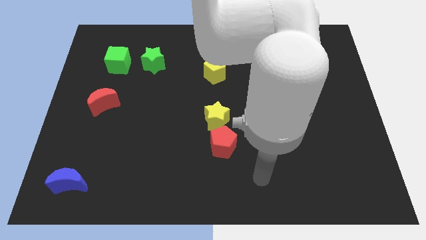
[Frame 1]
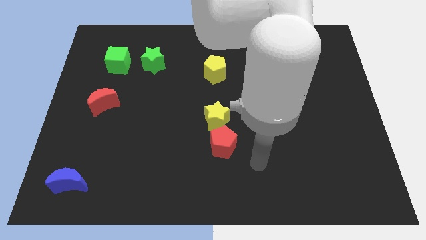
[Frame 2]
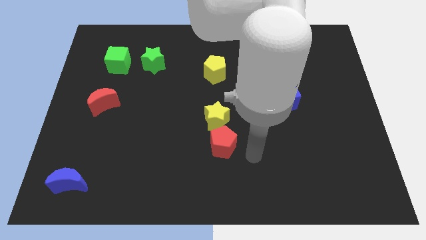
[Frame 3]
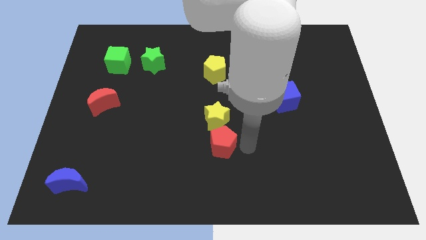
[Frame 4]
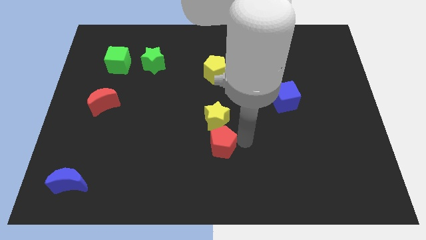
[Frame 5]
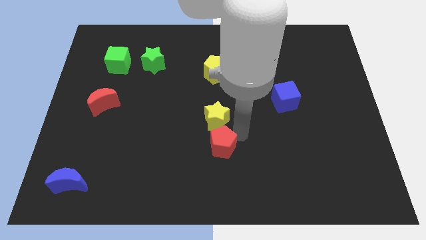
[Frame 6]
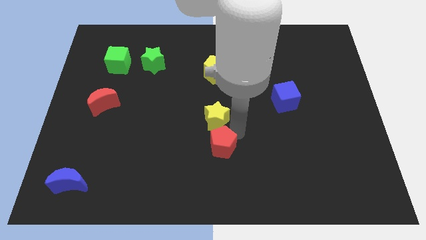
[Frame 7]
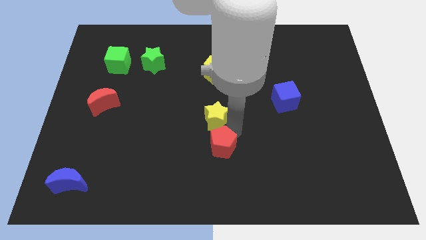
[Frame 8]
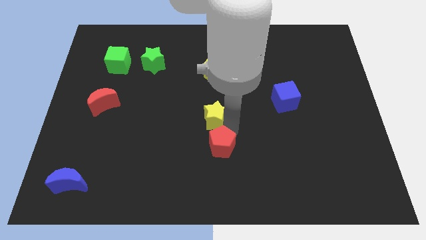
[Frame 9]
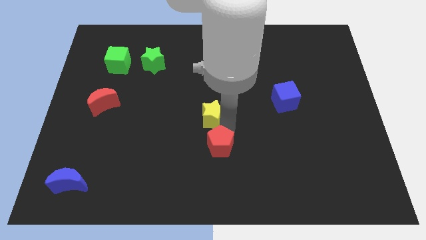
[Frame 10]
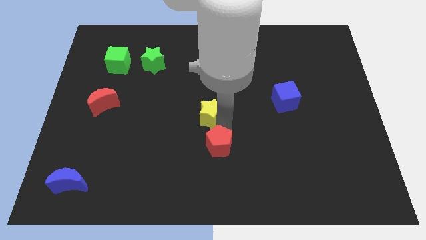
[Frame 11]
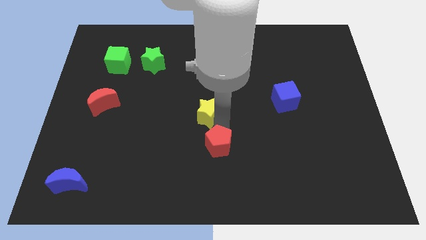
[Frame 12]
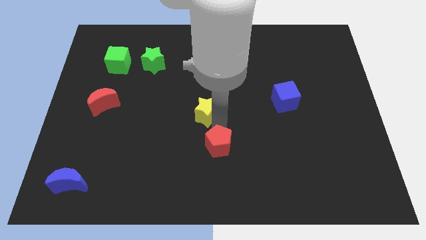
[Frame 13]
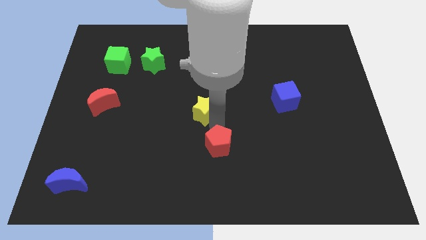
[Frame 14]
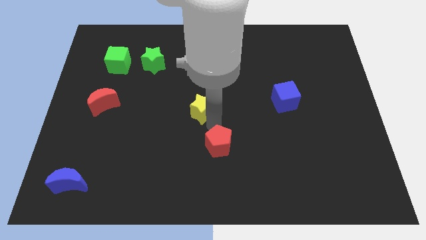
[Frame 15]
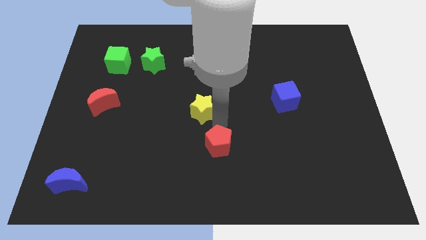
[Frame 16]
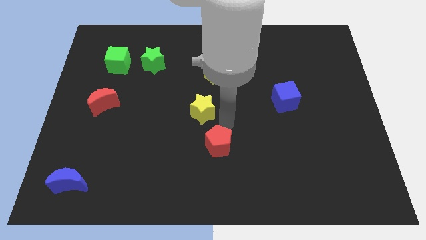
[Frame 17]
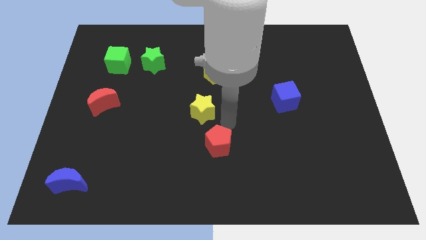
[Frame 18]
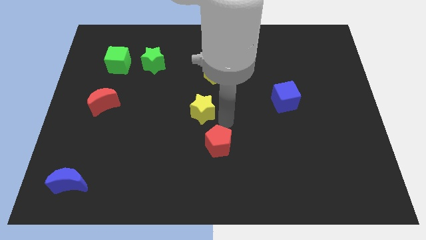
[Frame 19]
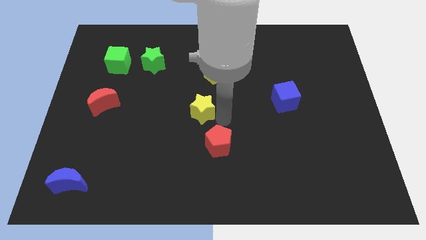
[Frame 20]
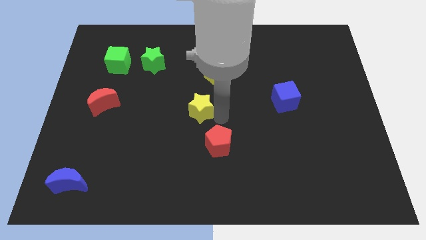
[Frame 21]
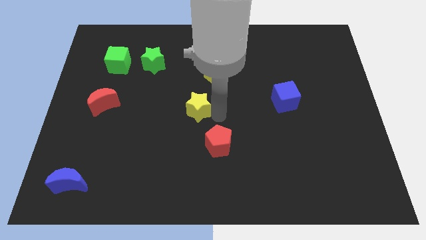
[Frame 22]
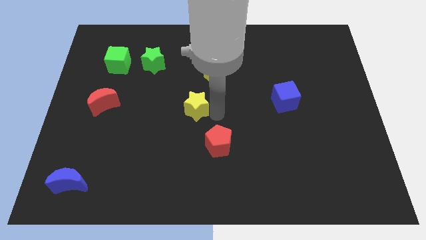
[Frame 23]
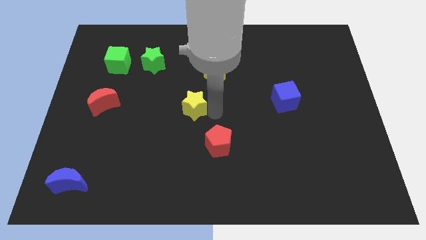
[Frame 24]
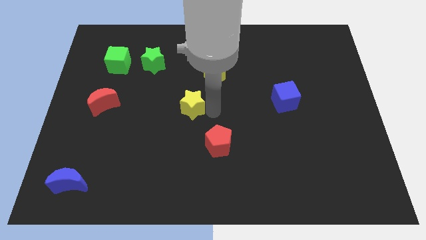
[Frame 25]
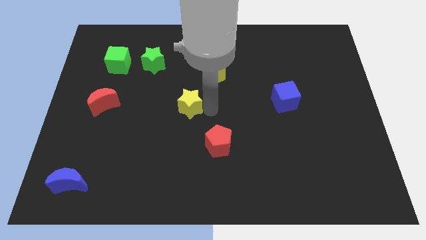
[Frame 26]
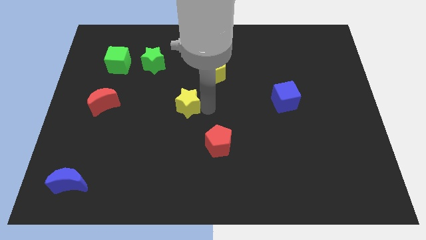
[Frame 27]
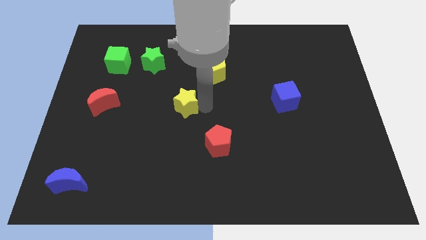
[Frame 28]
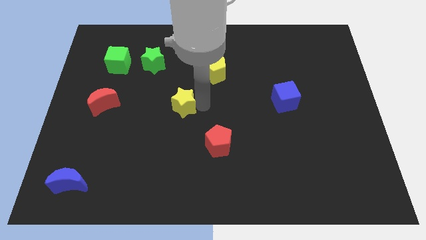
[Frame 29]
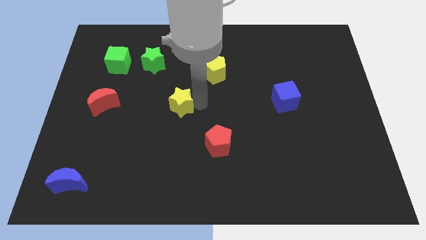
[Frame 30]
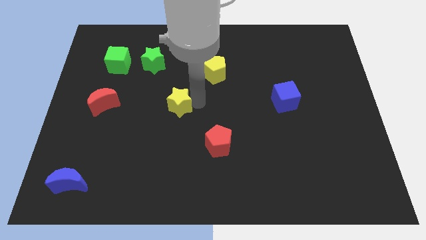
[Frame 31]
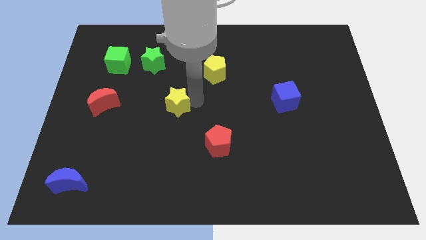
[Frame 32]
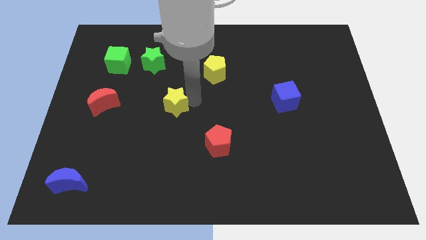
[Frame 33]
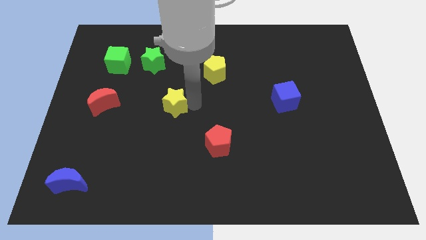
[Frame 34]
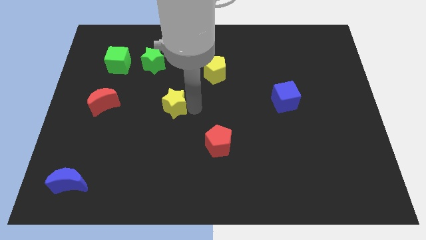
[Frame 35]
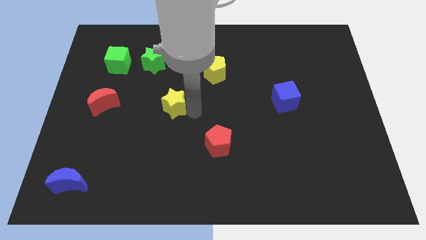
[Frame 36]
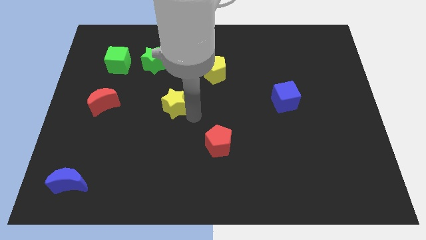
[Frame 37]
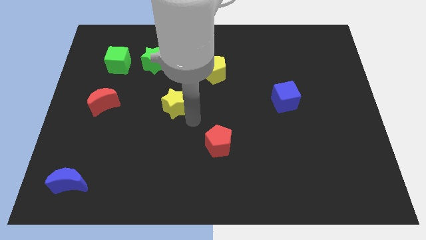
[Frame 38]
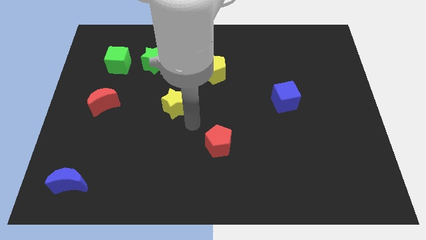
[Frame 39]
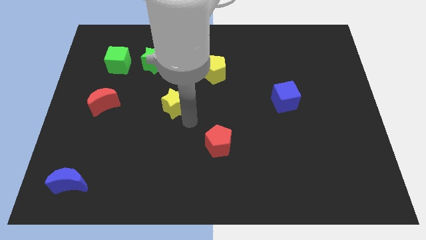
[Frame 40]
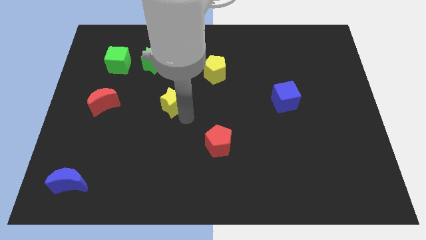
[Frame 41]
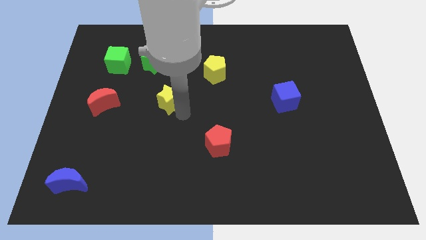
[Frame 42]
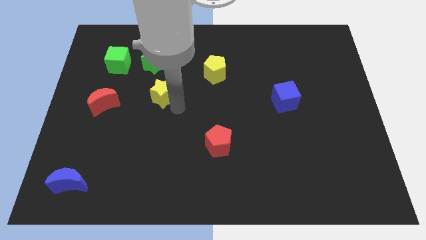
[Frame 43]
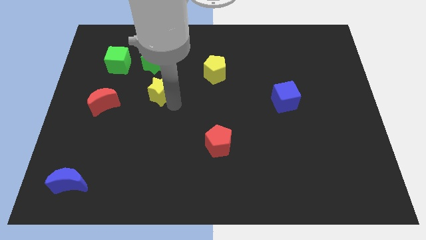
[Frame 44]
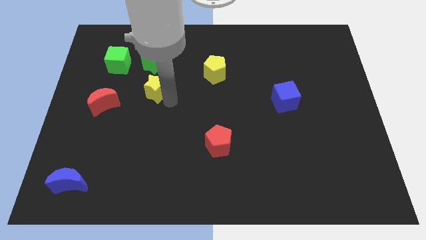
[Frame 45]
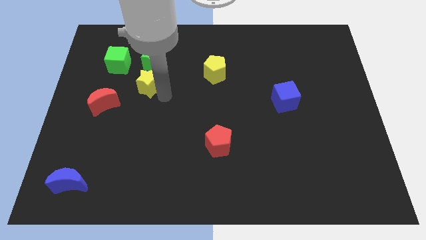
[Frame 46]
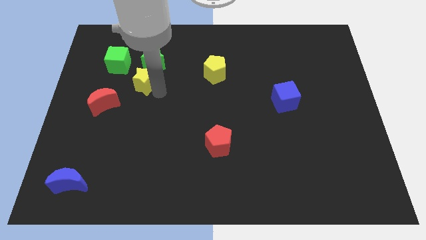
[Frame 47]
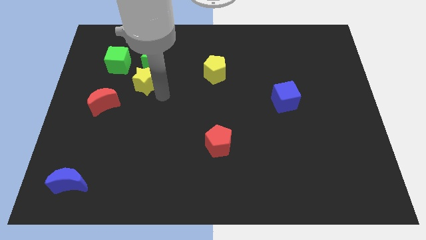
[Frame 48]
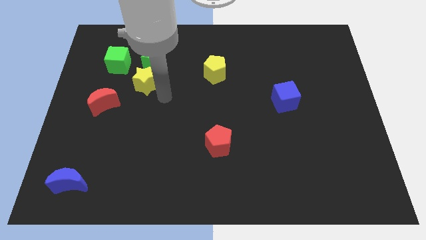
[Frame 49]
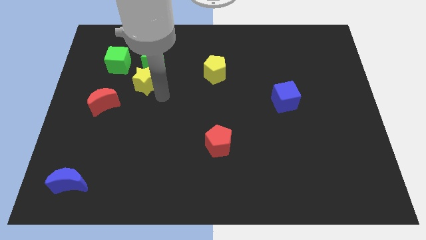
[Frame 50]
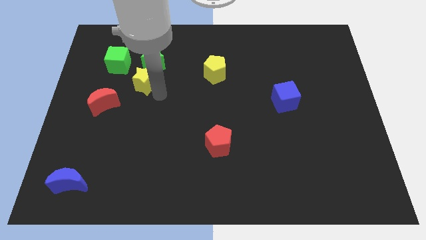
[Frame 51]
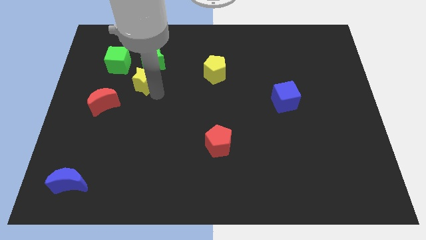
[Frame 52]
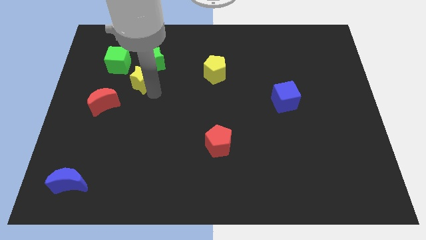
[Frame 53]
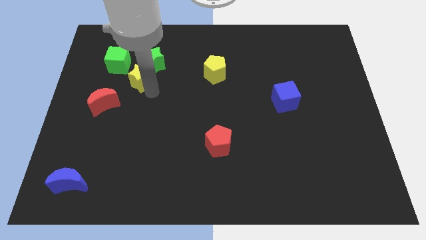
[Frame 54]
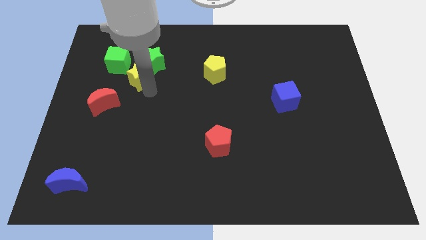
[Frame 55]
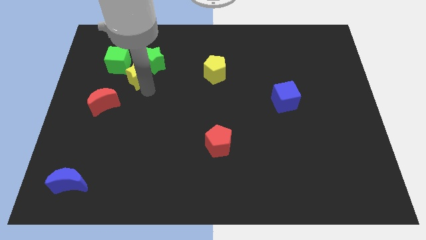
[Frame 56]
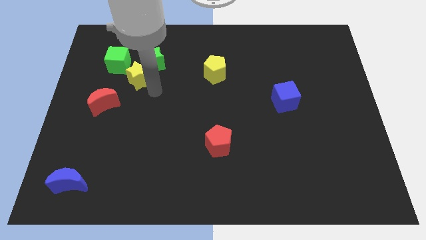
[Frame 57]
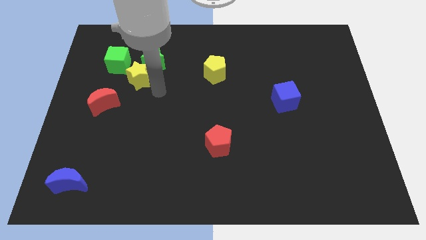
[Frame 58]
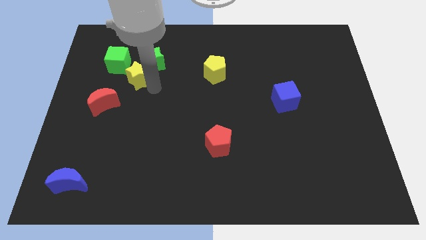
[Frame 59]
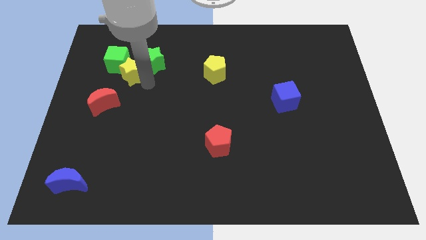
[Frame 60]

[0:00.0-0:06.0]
move the yellow star towards the green cube
